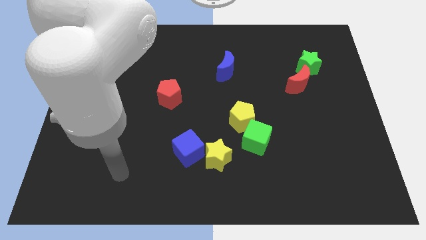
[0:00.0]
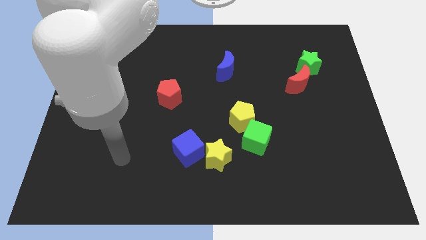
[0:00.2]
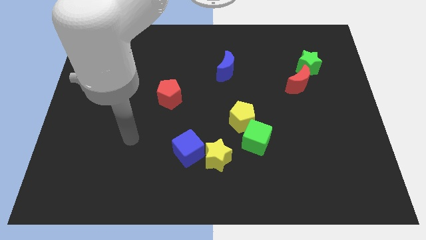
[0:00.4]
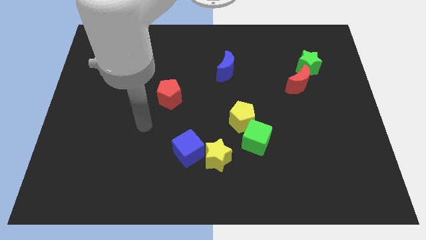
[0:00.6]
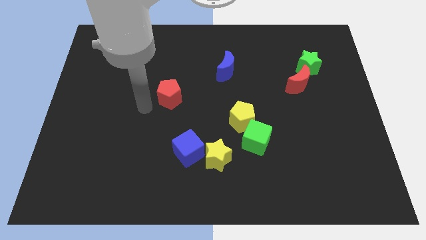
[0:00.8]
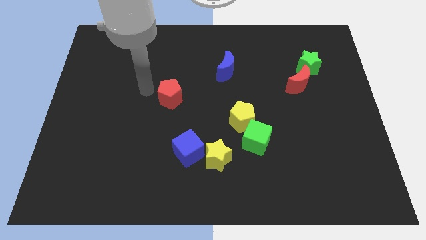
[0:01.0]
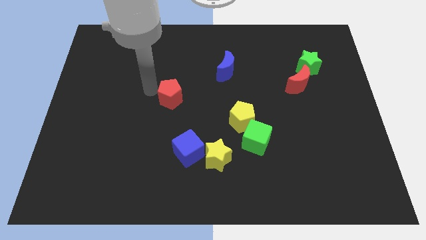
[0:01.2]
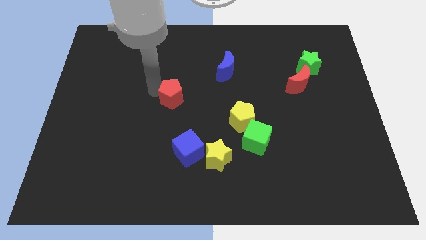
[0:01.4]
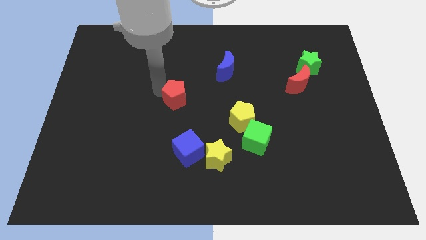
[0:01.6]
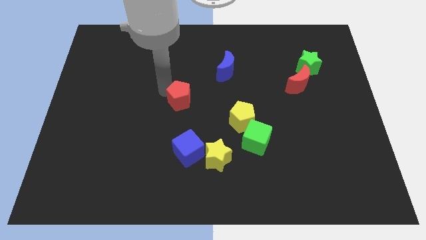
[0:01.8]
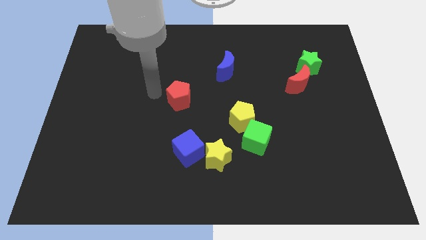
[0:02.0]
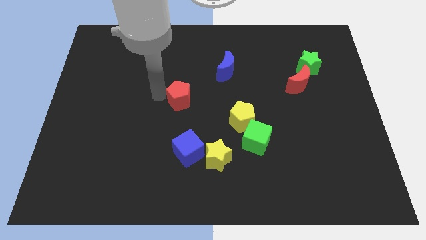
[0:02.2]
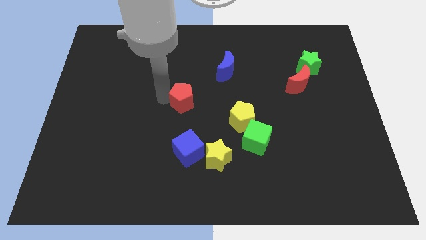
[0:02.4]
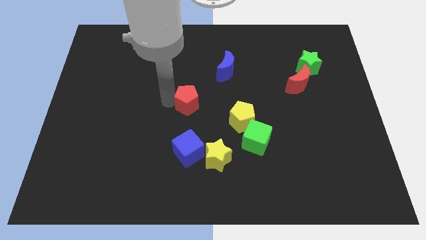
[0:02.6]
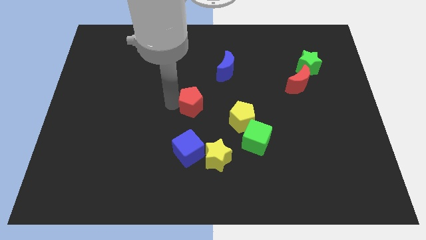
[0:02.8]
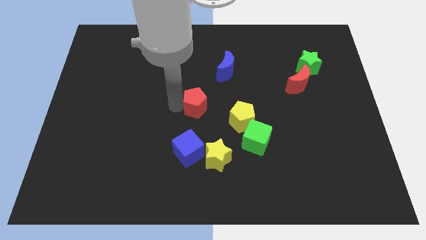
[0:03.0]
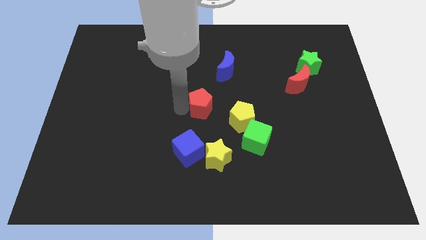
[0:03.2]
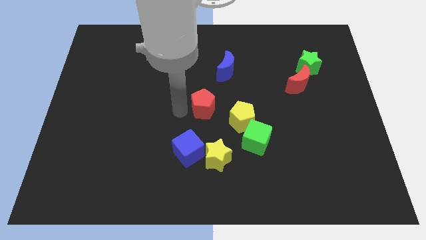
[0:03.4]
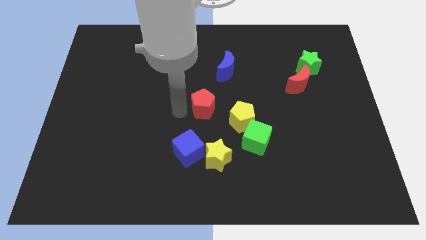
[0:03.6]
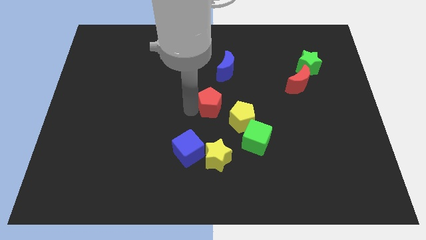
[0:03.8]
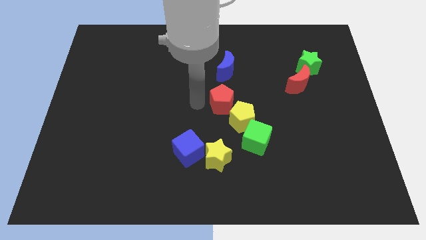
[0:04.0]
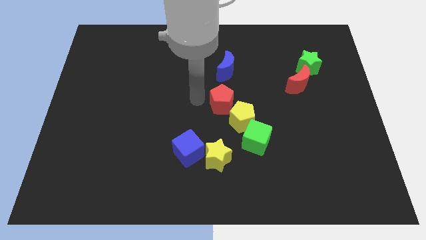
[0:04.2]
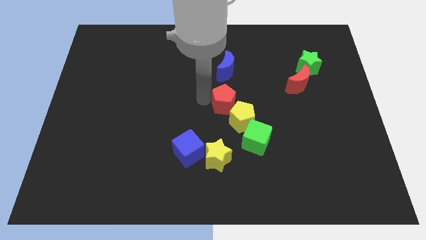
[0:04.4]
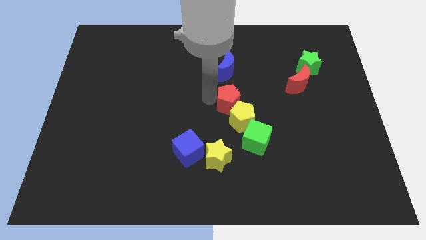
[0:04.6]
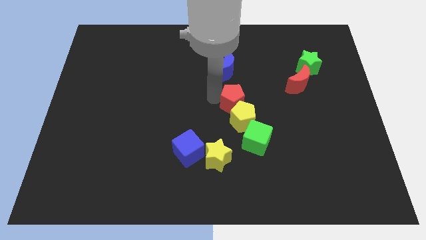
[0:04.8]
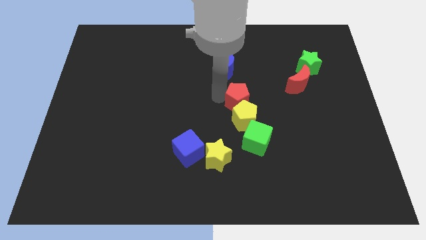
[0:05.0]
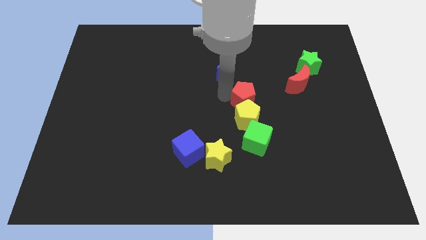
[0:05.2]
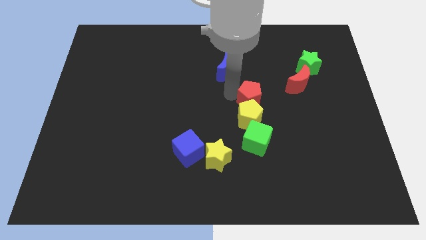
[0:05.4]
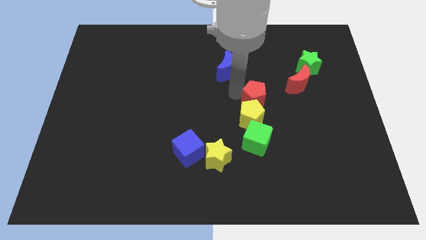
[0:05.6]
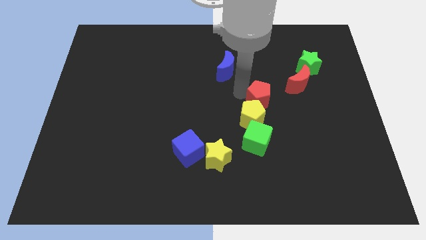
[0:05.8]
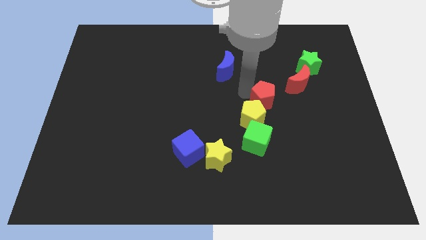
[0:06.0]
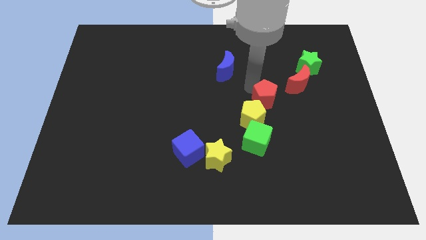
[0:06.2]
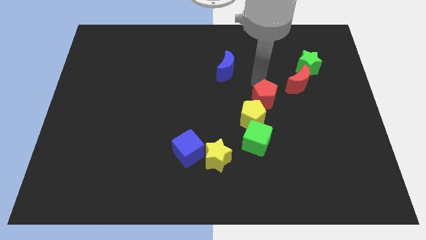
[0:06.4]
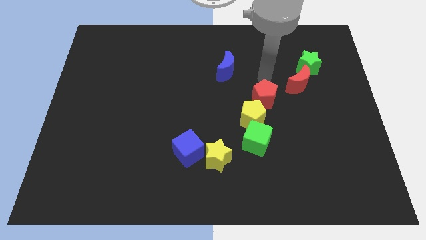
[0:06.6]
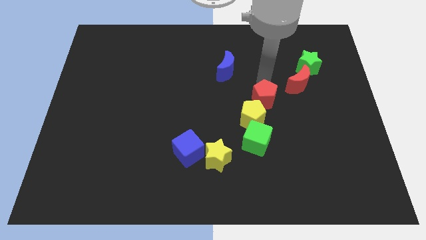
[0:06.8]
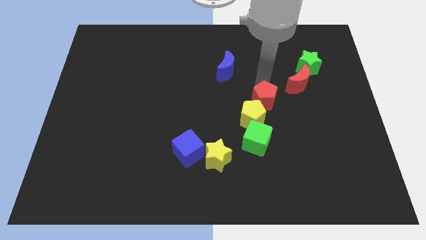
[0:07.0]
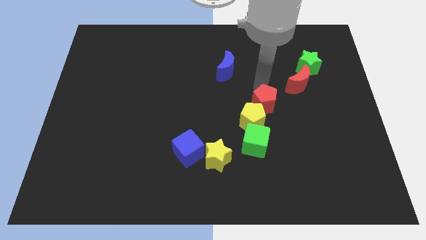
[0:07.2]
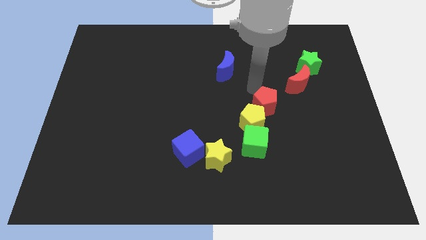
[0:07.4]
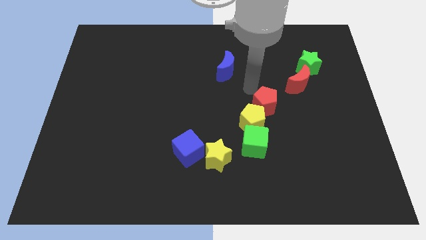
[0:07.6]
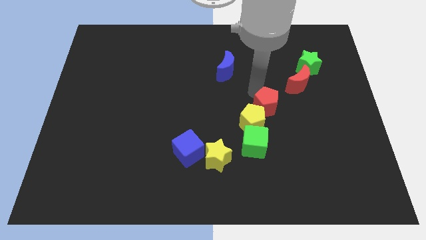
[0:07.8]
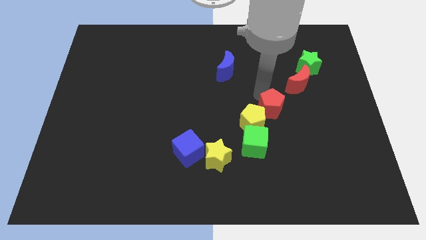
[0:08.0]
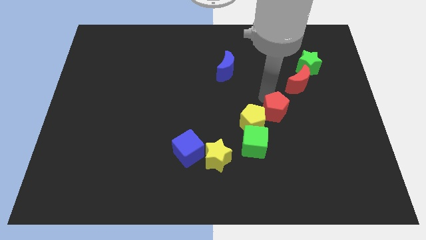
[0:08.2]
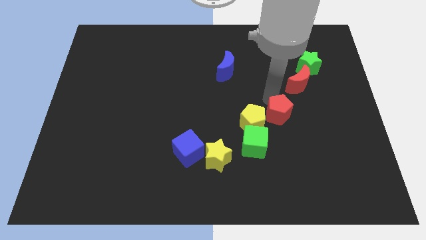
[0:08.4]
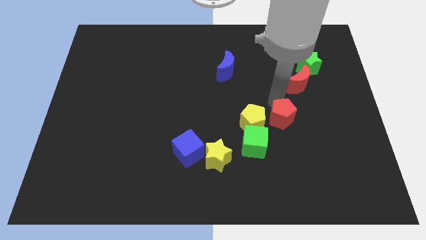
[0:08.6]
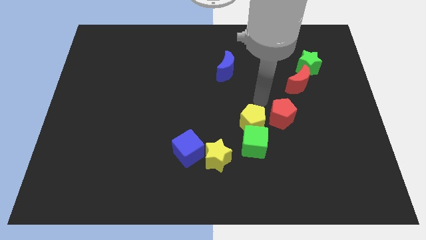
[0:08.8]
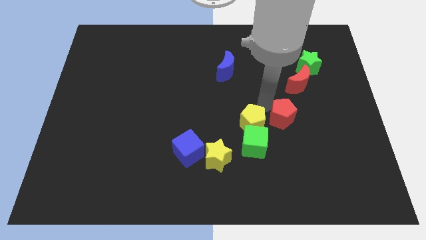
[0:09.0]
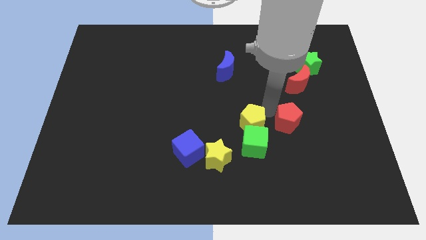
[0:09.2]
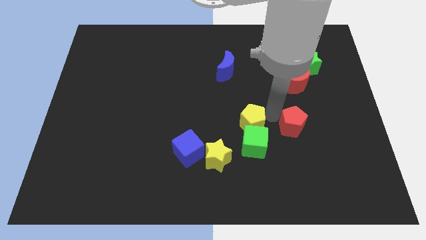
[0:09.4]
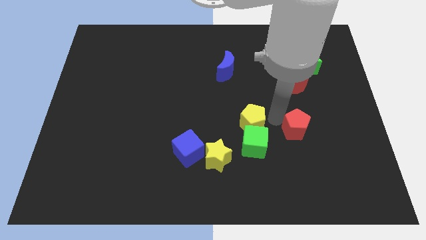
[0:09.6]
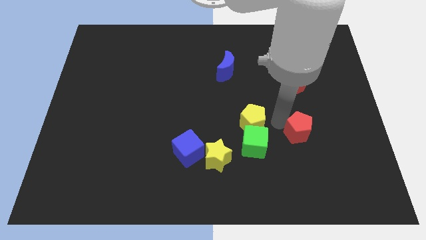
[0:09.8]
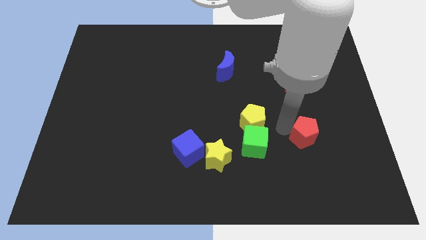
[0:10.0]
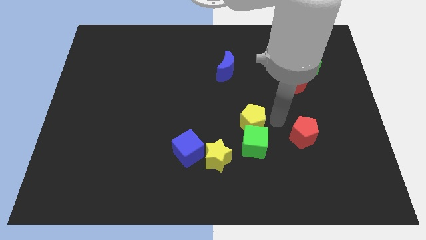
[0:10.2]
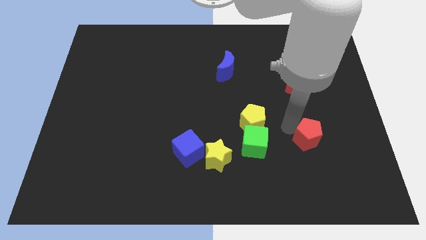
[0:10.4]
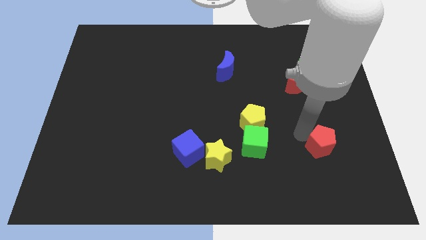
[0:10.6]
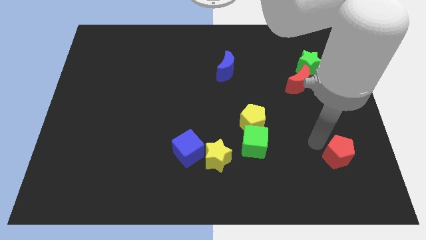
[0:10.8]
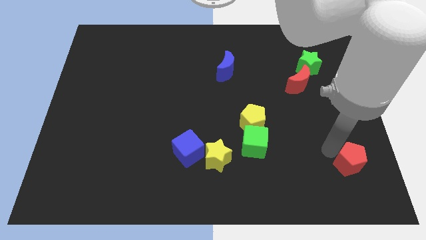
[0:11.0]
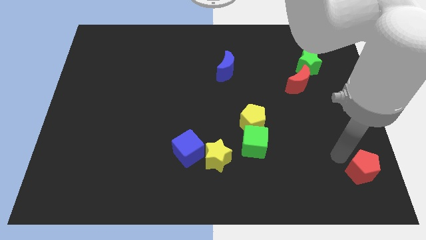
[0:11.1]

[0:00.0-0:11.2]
push the red pentagon to the lower right corner

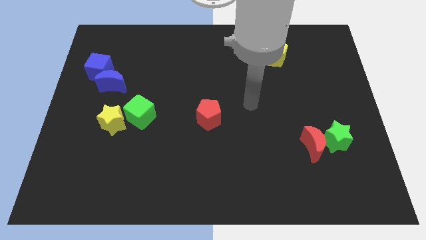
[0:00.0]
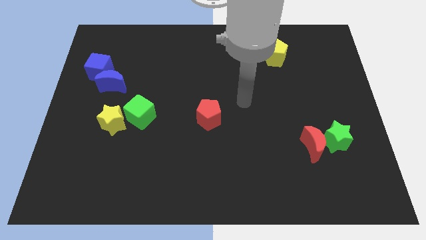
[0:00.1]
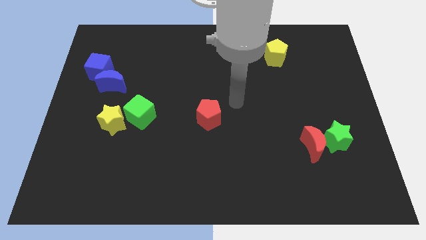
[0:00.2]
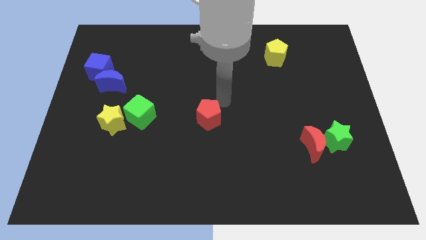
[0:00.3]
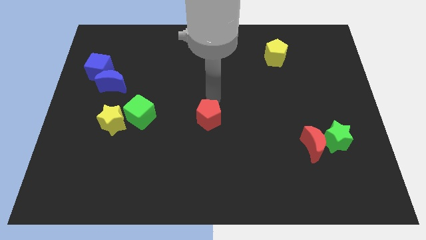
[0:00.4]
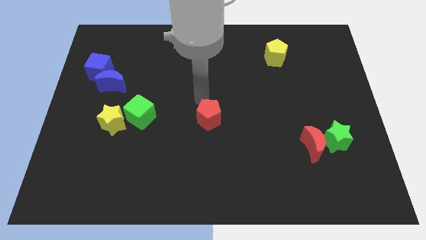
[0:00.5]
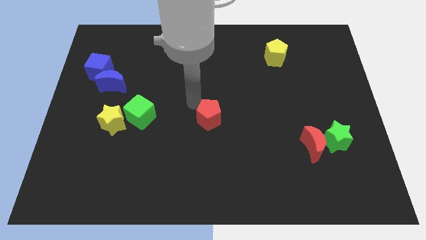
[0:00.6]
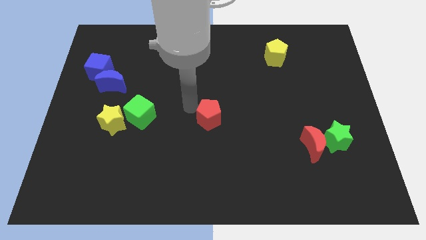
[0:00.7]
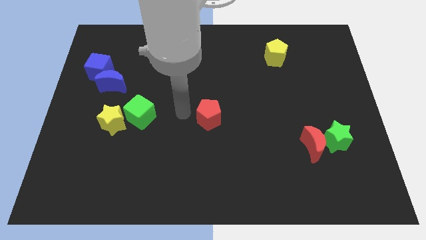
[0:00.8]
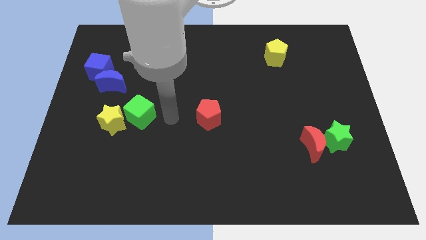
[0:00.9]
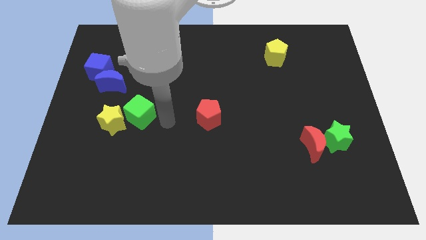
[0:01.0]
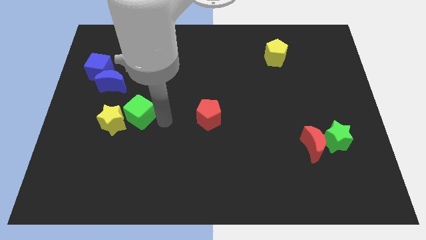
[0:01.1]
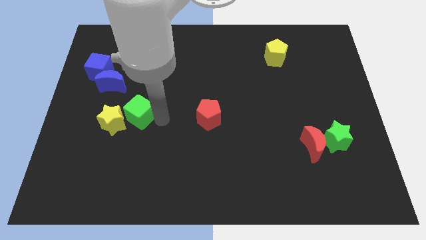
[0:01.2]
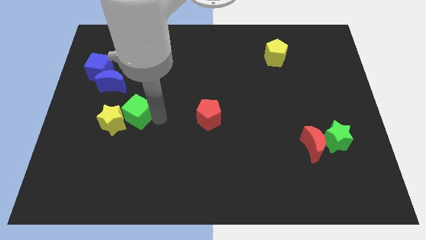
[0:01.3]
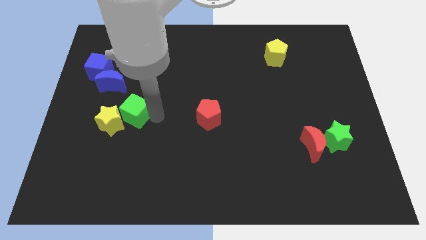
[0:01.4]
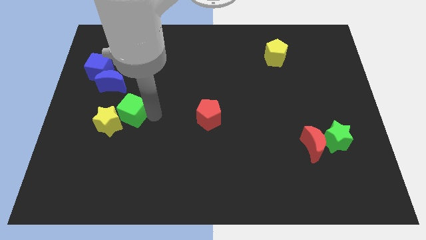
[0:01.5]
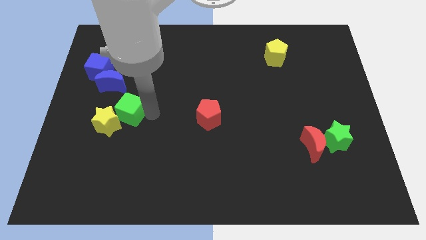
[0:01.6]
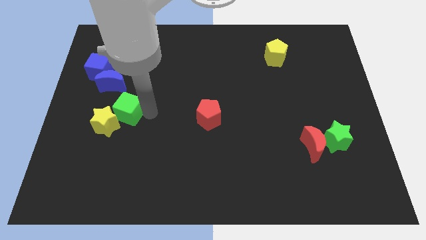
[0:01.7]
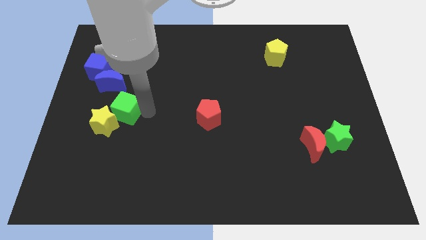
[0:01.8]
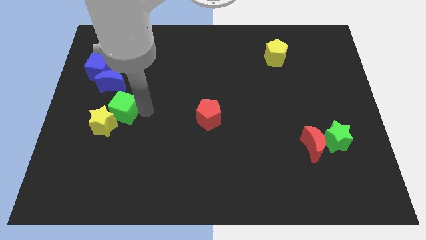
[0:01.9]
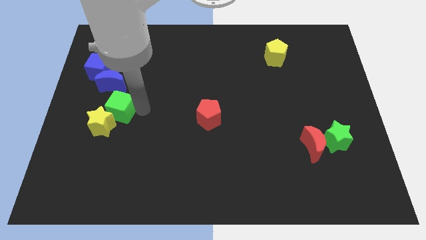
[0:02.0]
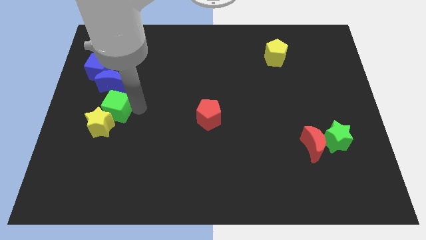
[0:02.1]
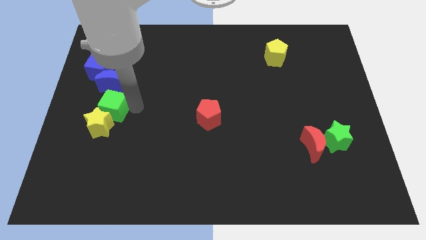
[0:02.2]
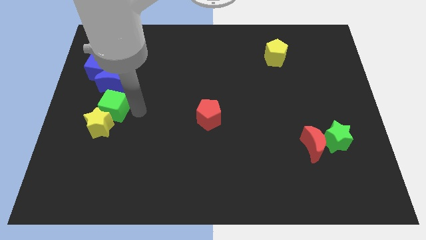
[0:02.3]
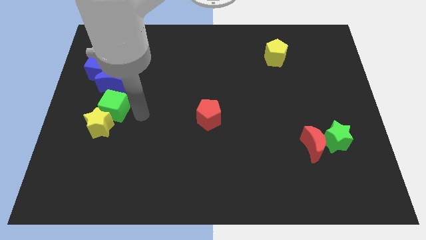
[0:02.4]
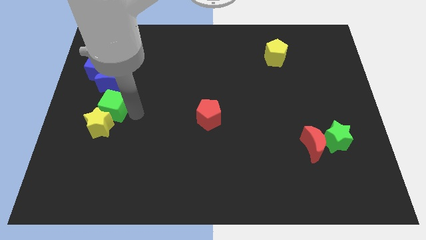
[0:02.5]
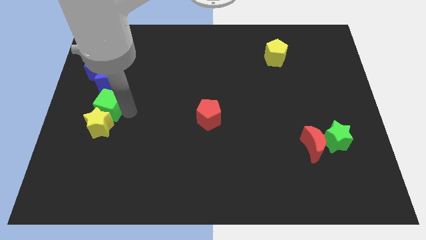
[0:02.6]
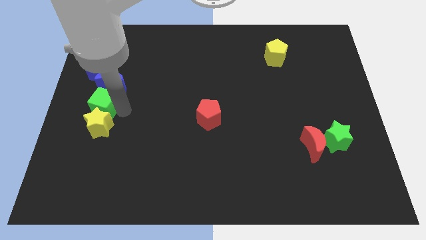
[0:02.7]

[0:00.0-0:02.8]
push the green cube to the center left
